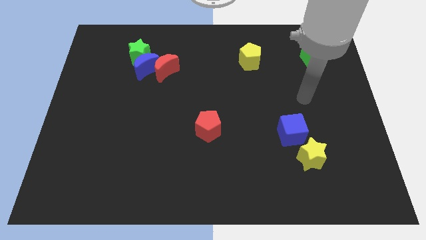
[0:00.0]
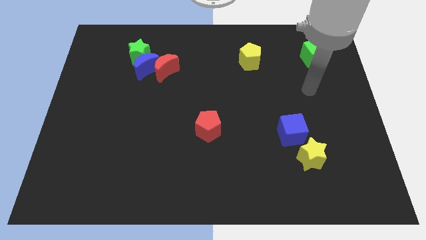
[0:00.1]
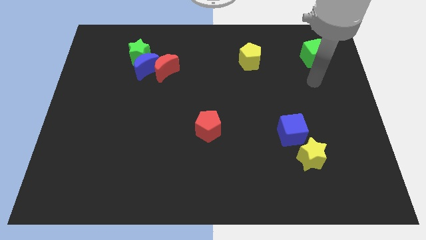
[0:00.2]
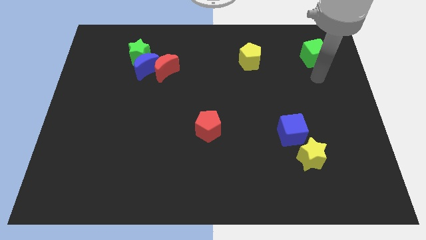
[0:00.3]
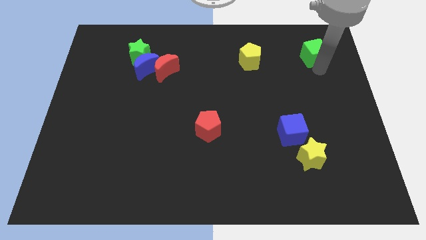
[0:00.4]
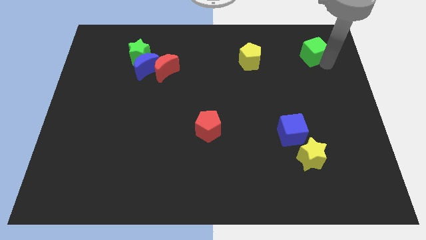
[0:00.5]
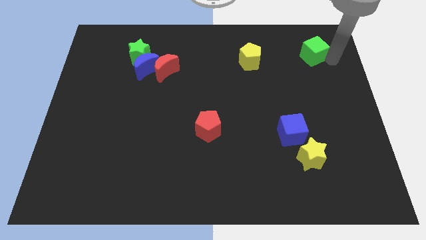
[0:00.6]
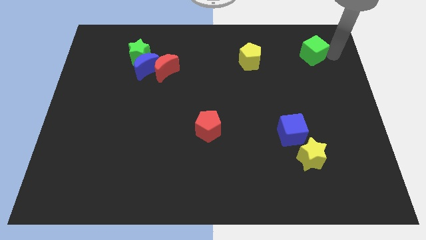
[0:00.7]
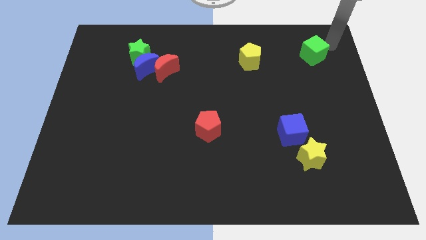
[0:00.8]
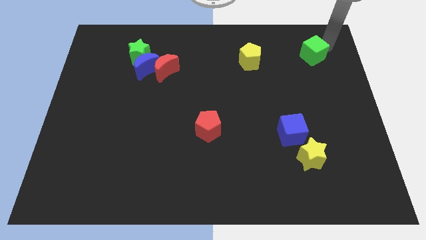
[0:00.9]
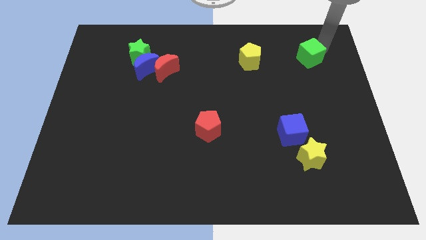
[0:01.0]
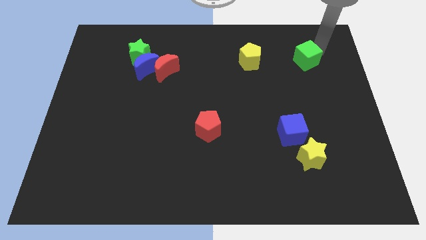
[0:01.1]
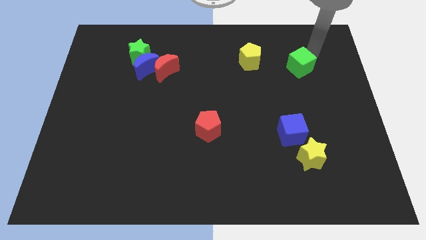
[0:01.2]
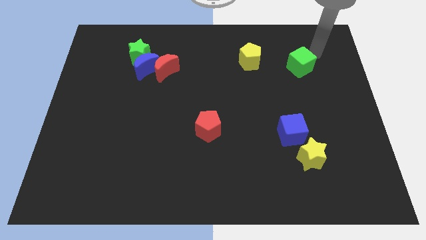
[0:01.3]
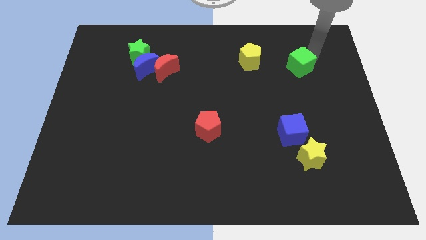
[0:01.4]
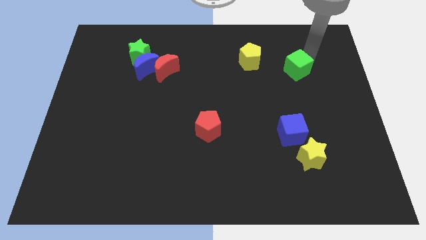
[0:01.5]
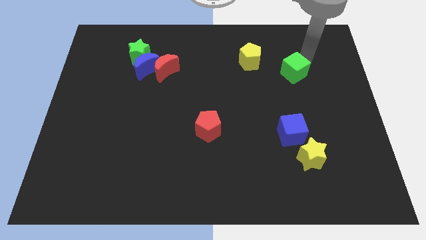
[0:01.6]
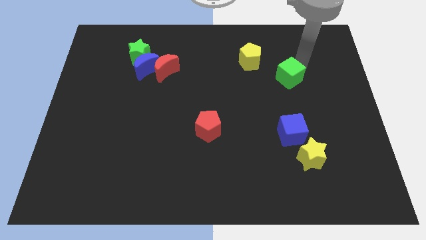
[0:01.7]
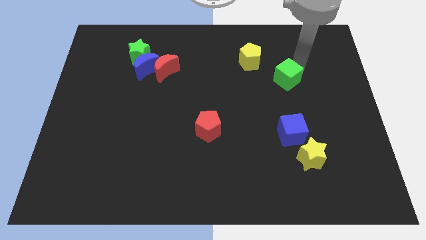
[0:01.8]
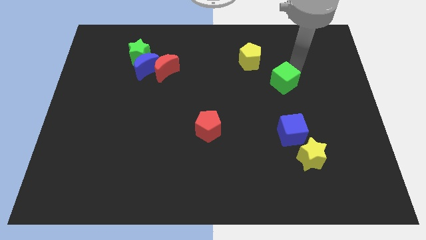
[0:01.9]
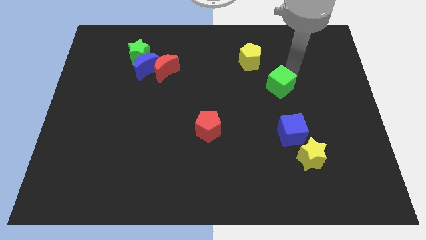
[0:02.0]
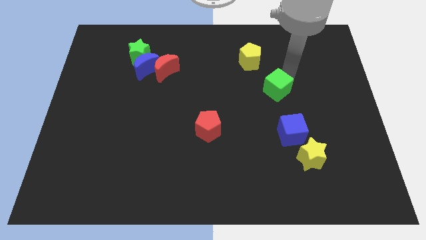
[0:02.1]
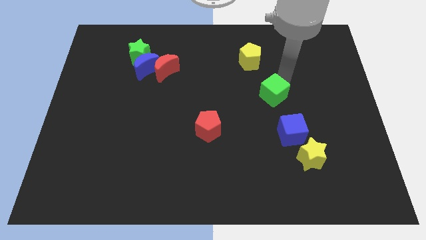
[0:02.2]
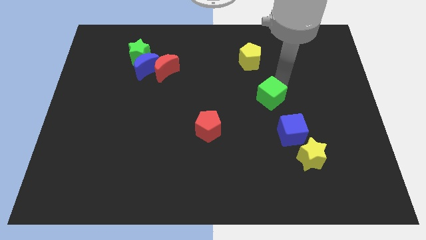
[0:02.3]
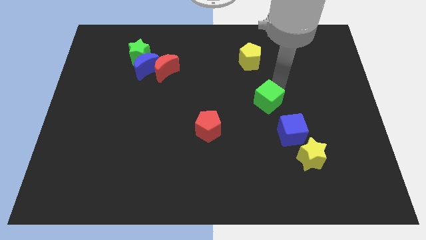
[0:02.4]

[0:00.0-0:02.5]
move the green cube downwards and then to the left

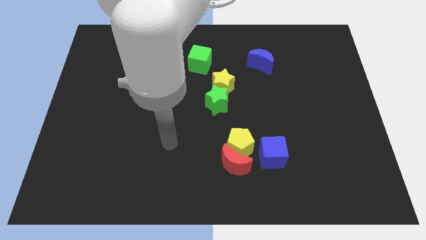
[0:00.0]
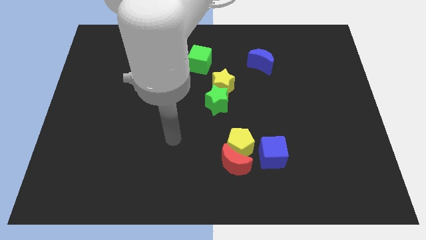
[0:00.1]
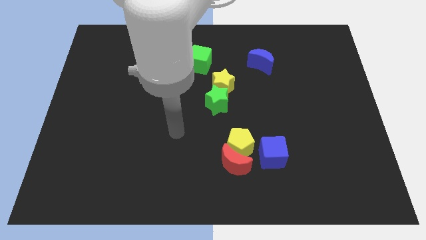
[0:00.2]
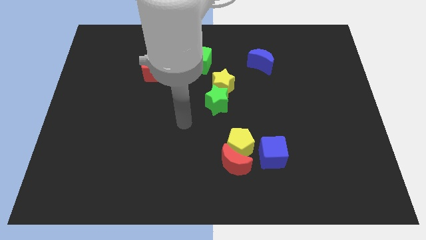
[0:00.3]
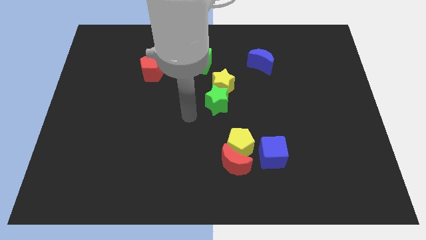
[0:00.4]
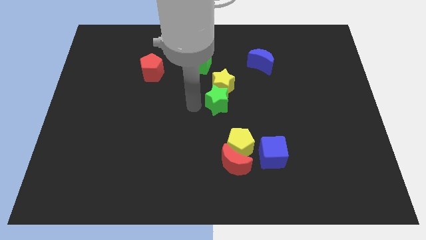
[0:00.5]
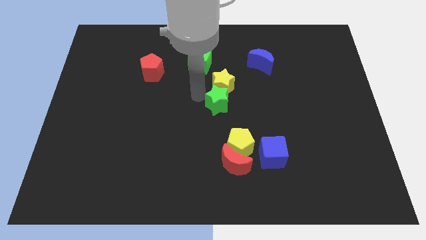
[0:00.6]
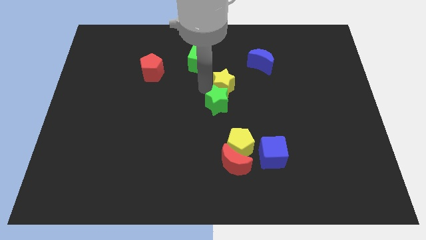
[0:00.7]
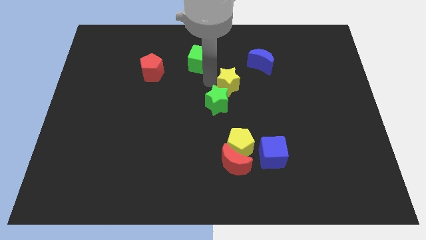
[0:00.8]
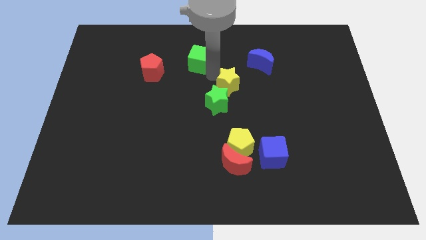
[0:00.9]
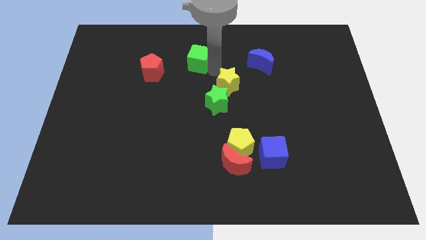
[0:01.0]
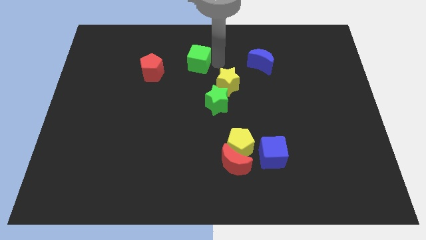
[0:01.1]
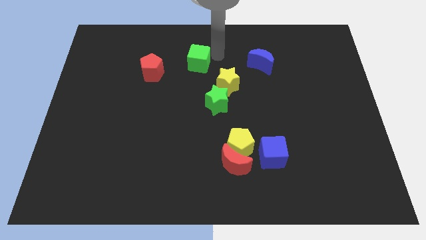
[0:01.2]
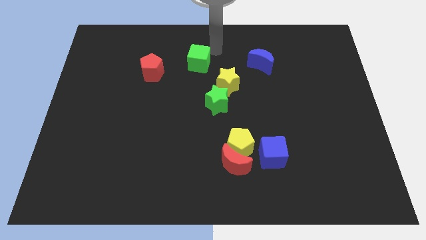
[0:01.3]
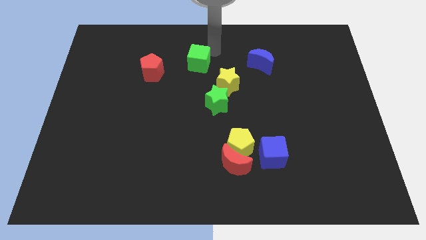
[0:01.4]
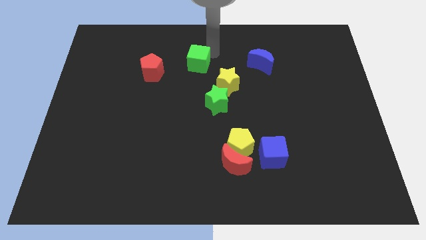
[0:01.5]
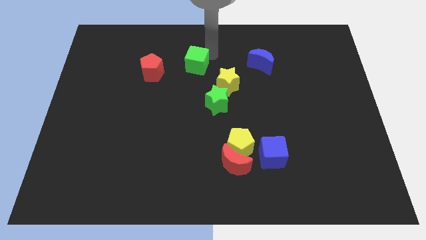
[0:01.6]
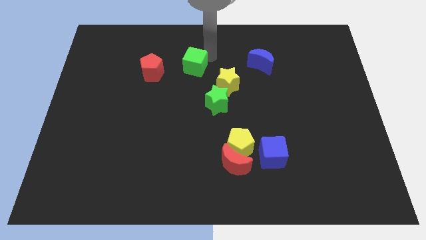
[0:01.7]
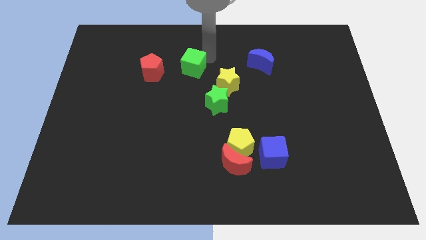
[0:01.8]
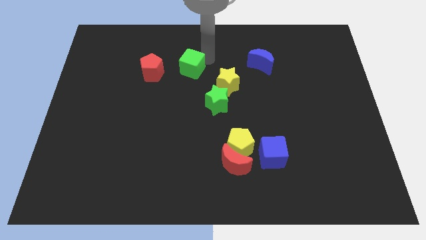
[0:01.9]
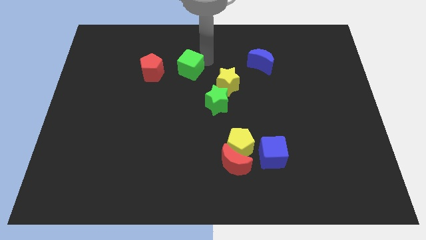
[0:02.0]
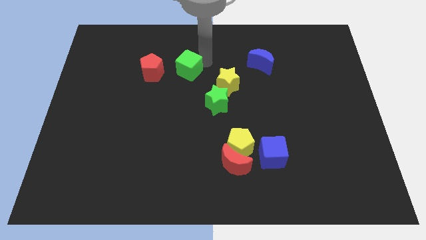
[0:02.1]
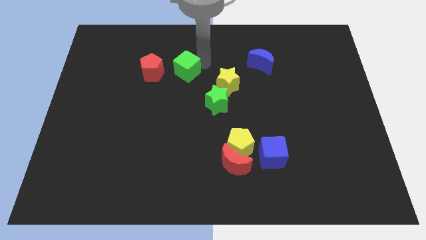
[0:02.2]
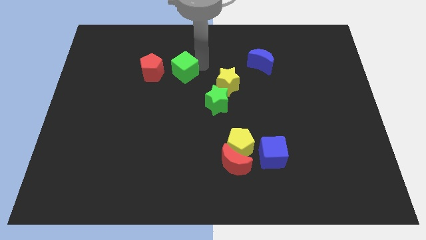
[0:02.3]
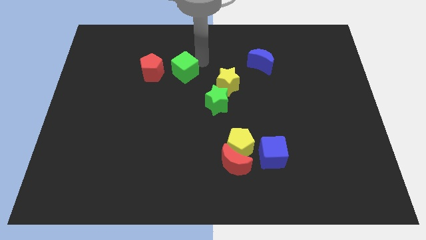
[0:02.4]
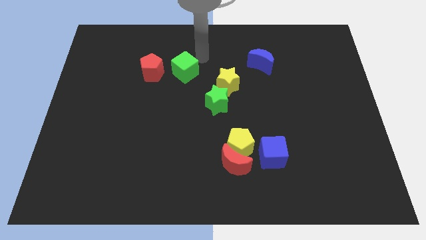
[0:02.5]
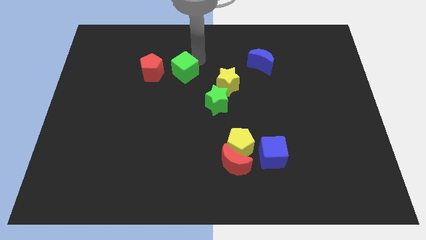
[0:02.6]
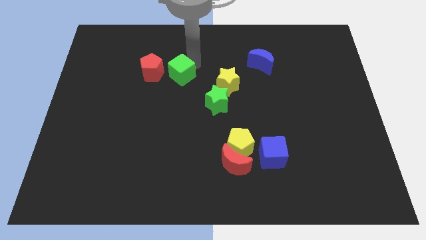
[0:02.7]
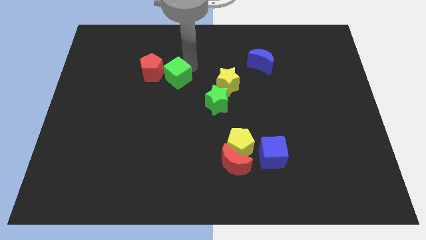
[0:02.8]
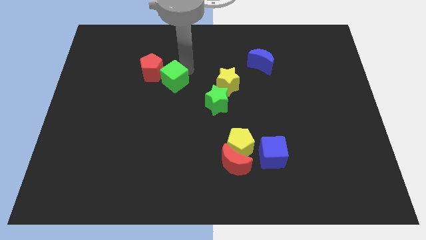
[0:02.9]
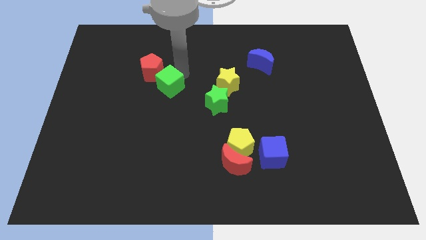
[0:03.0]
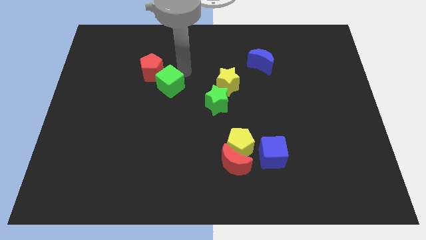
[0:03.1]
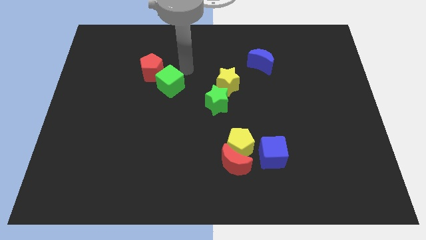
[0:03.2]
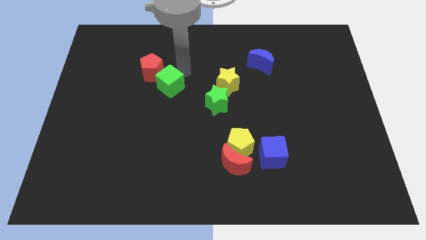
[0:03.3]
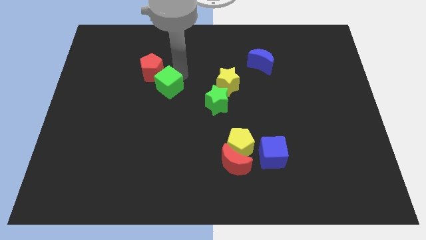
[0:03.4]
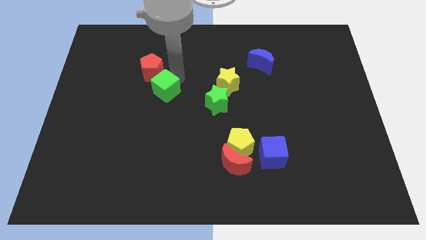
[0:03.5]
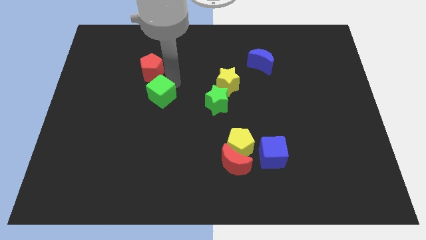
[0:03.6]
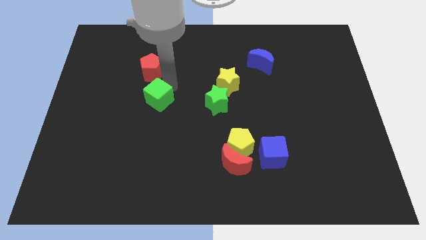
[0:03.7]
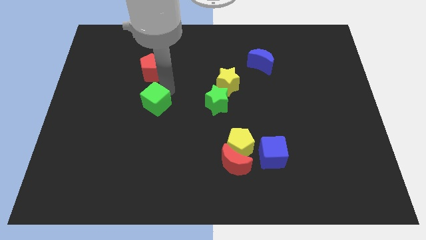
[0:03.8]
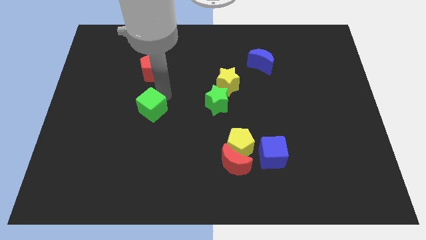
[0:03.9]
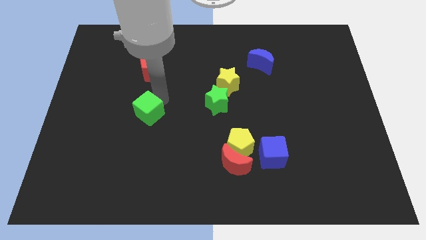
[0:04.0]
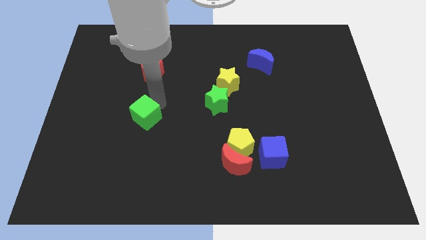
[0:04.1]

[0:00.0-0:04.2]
push the green cube downwards and to the left

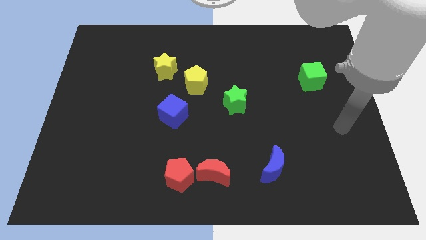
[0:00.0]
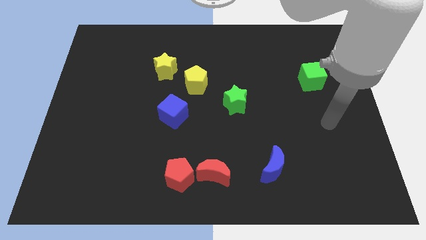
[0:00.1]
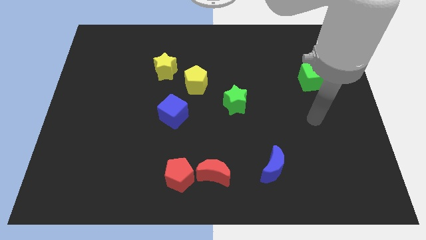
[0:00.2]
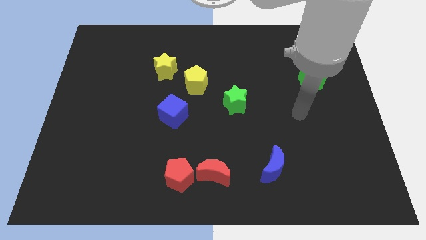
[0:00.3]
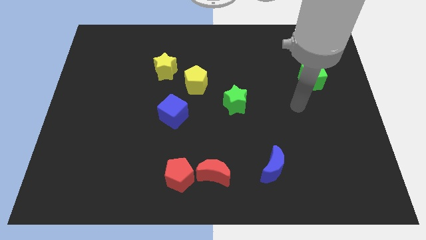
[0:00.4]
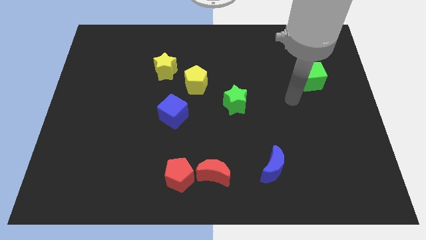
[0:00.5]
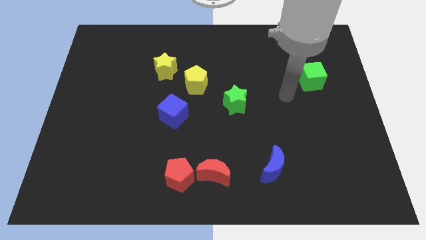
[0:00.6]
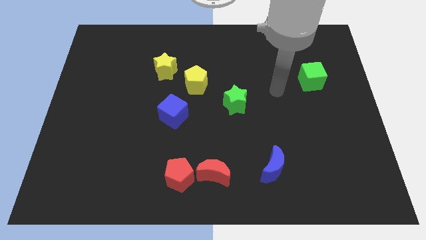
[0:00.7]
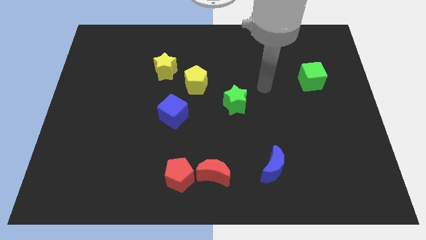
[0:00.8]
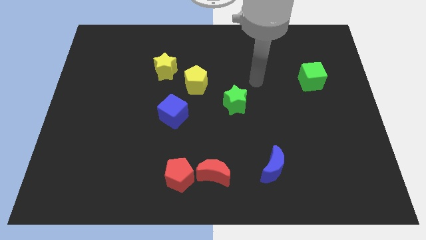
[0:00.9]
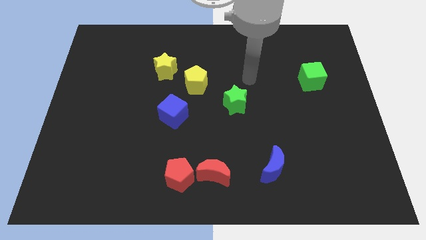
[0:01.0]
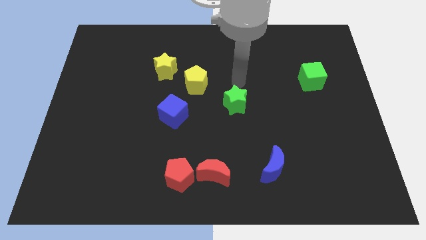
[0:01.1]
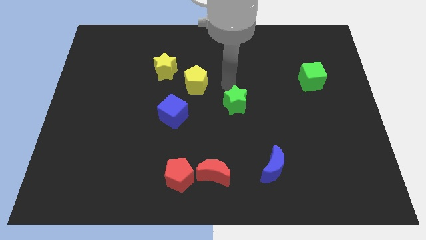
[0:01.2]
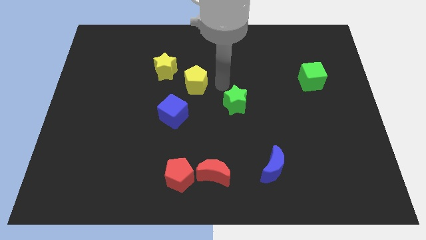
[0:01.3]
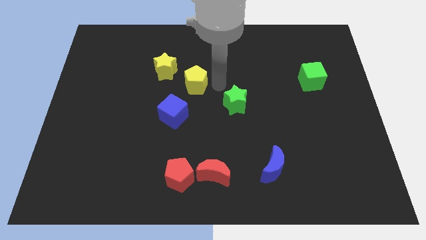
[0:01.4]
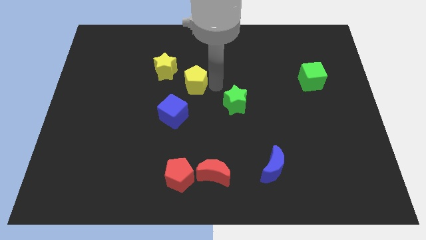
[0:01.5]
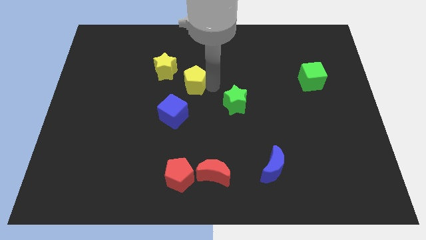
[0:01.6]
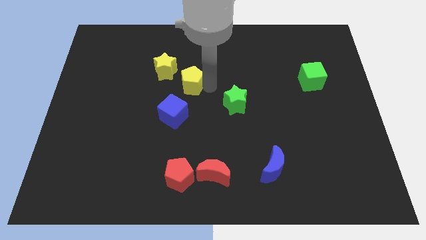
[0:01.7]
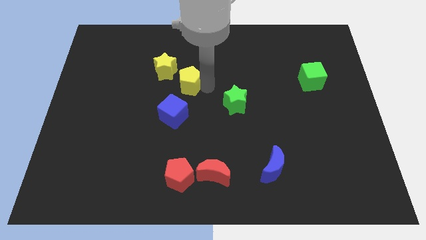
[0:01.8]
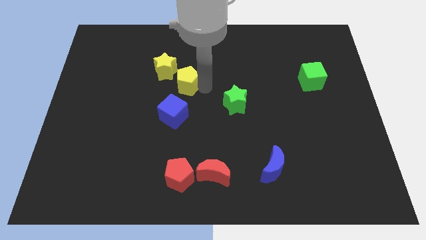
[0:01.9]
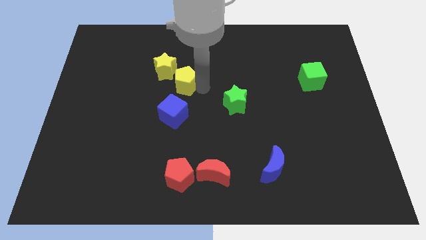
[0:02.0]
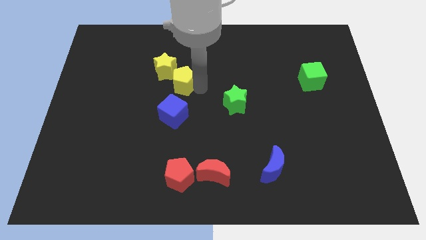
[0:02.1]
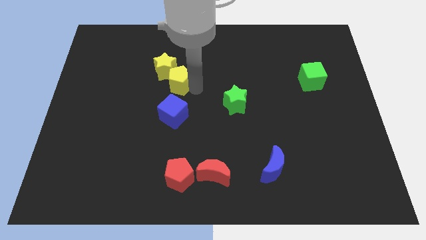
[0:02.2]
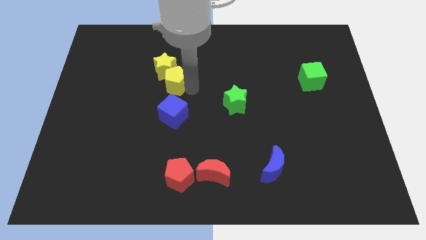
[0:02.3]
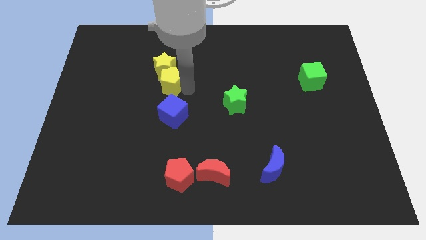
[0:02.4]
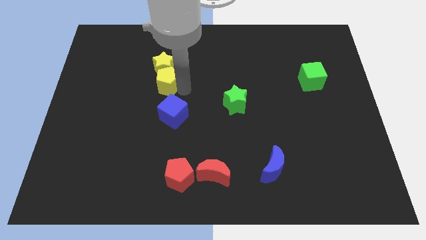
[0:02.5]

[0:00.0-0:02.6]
slide the yellow pentagon somewhat to the left
